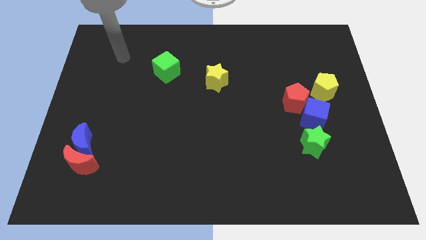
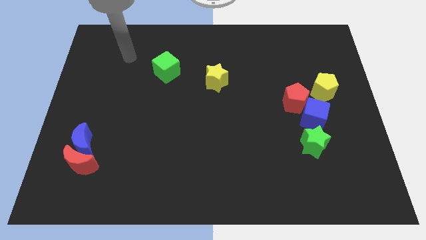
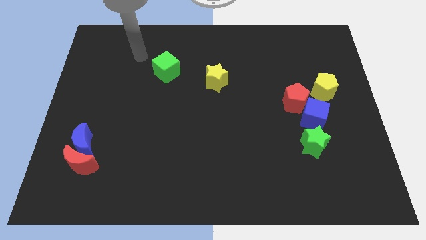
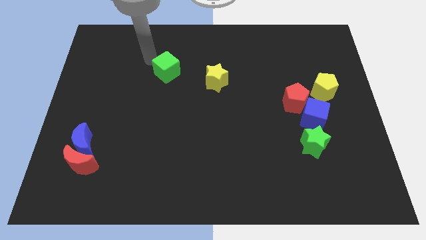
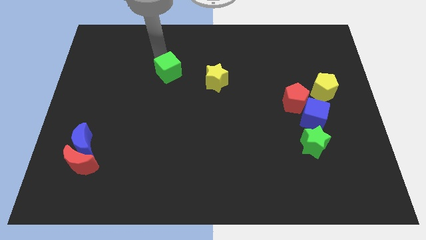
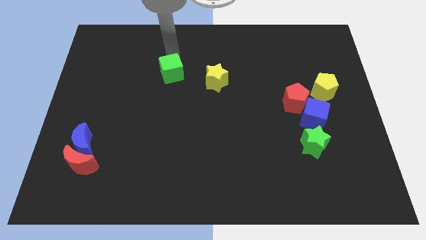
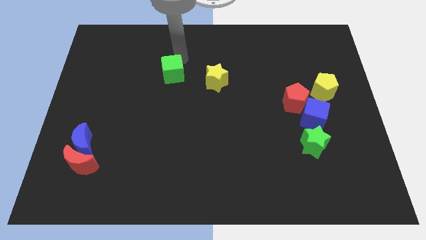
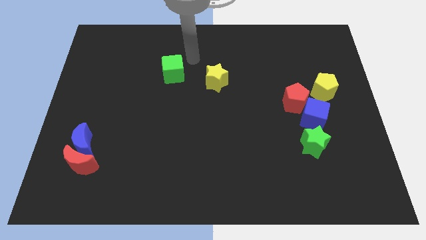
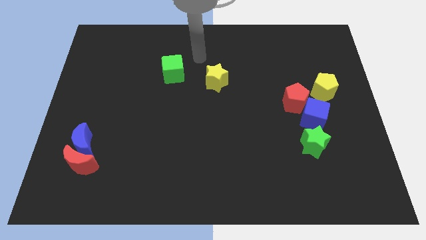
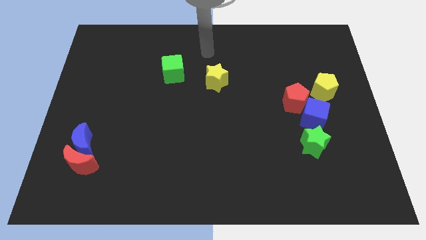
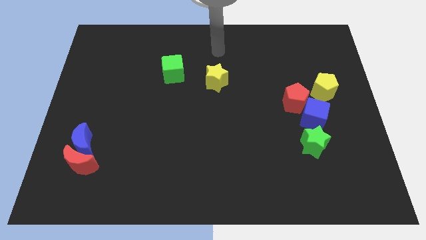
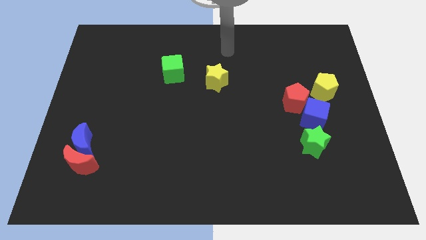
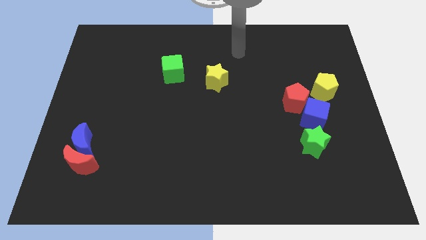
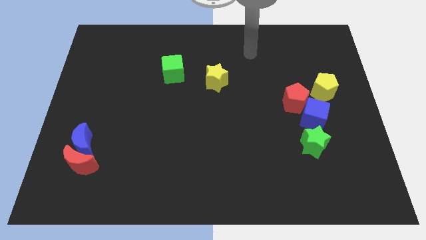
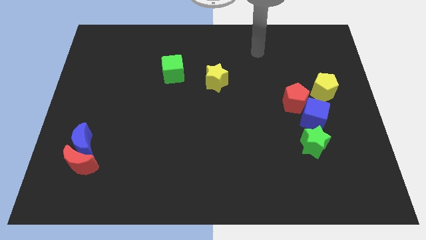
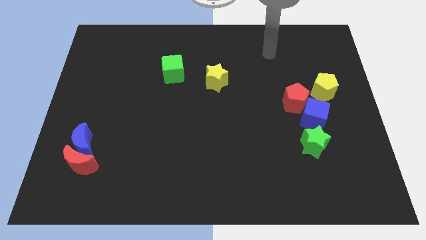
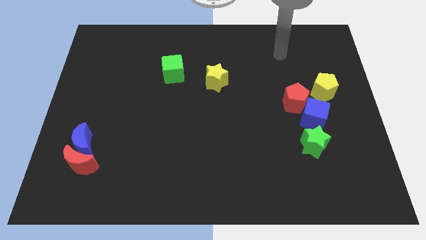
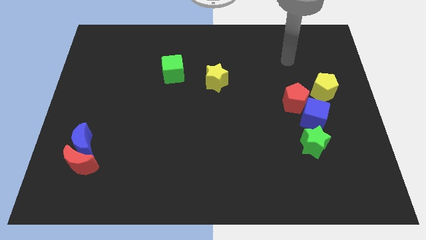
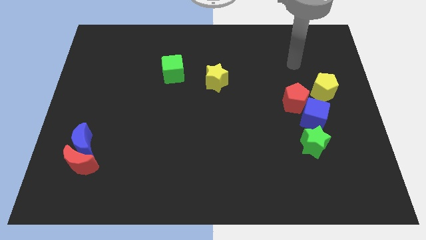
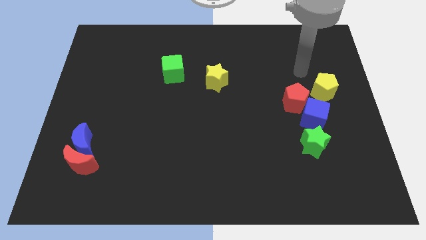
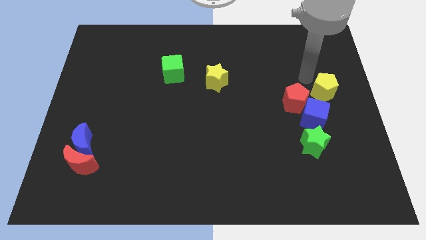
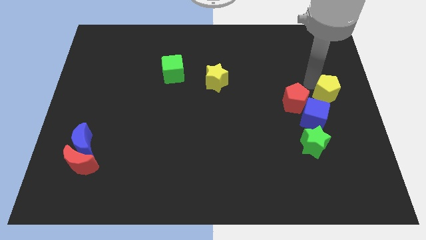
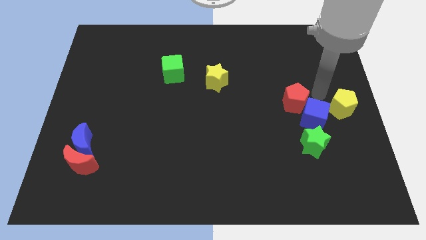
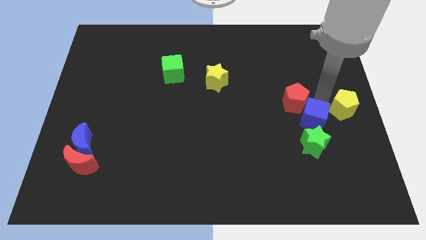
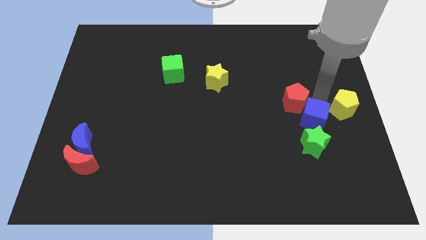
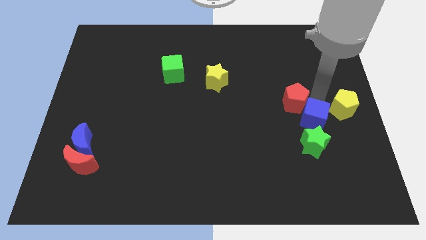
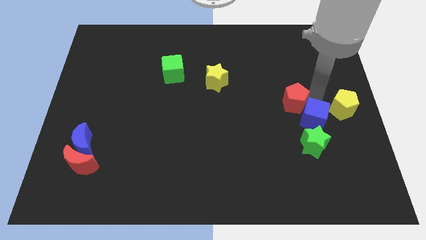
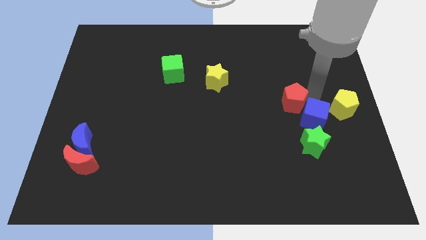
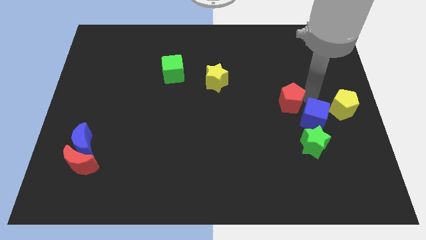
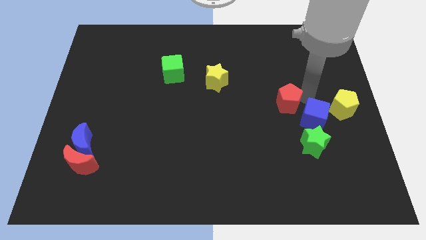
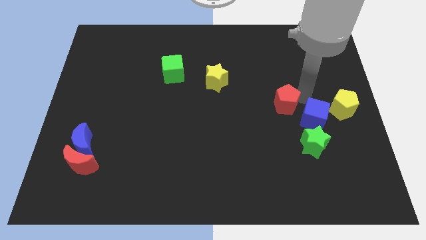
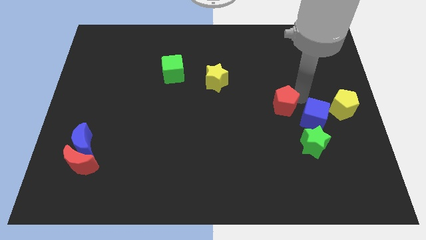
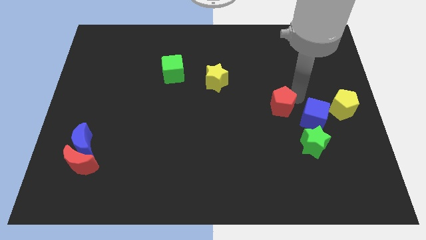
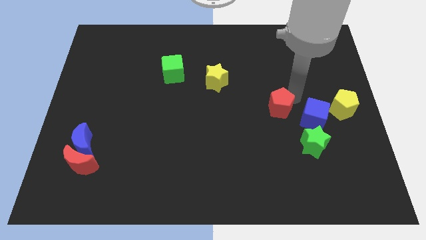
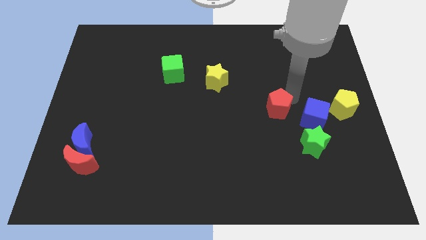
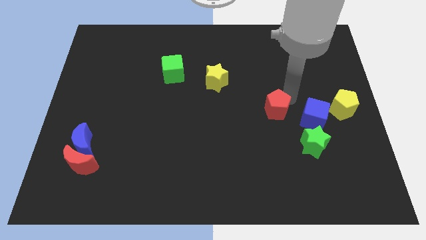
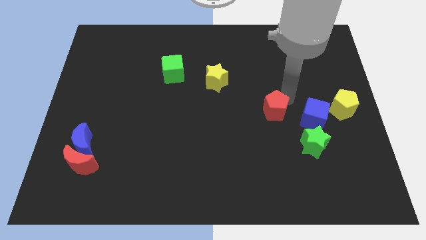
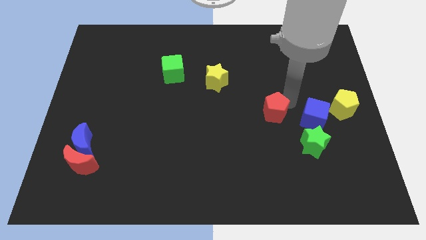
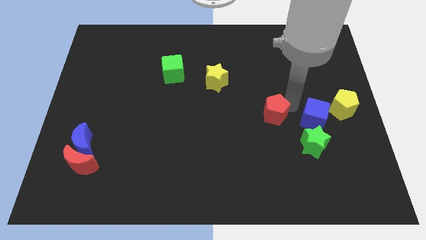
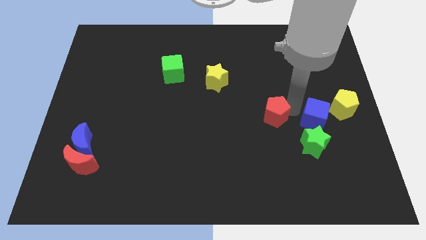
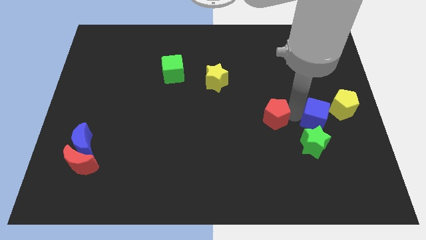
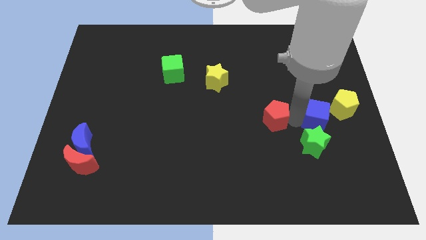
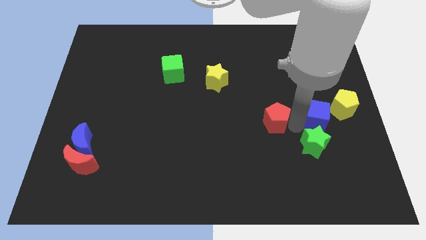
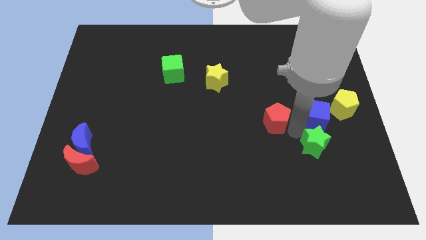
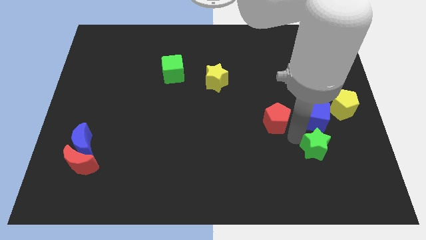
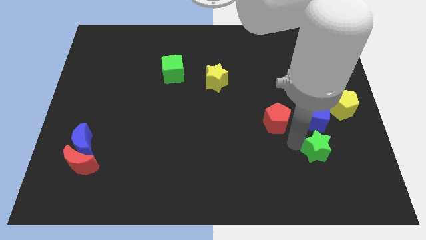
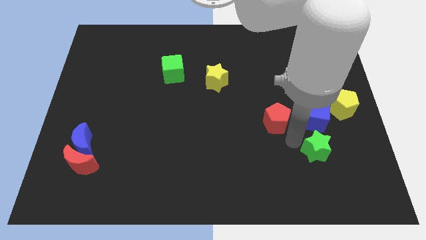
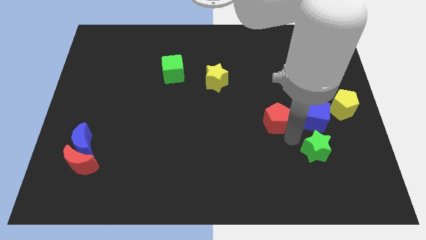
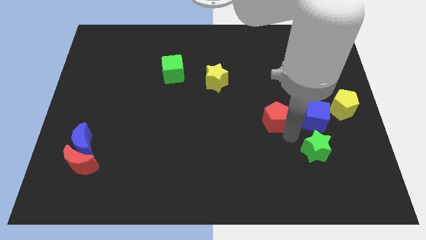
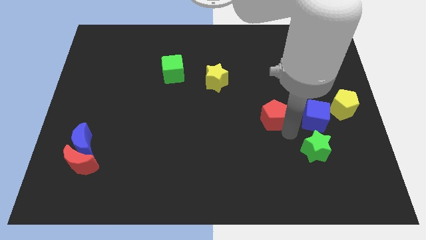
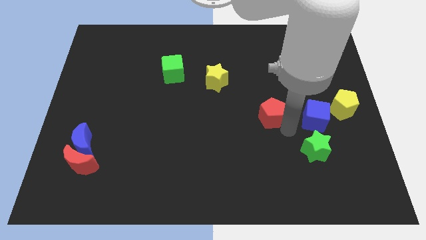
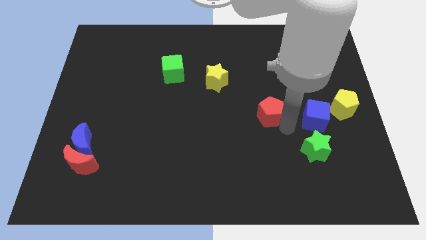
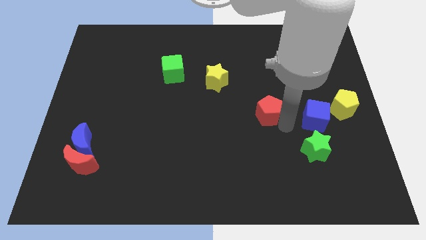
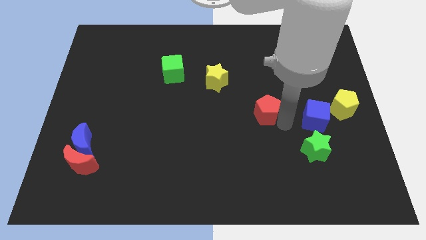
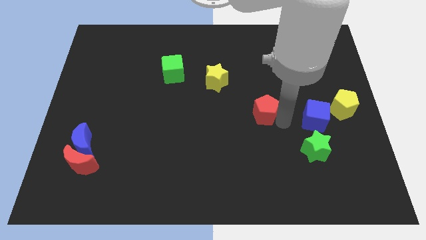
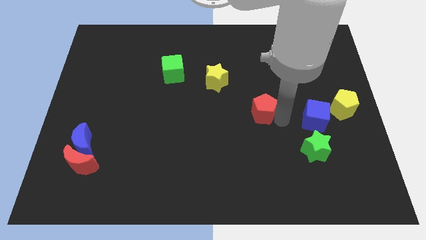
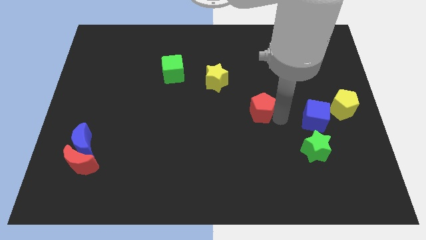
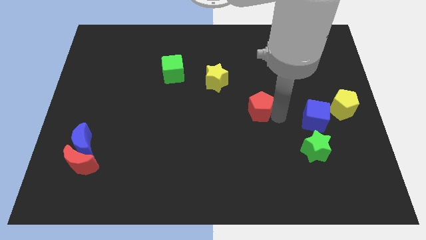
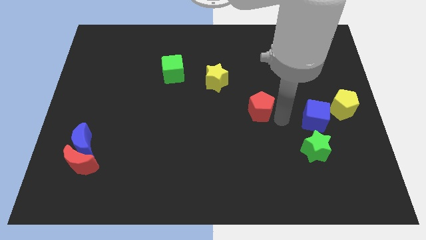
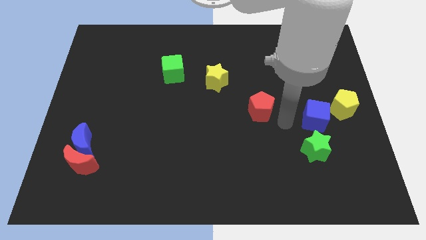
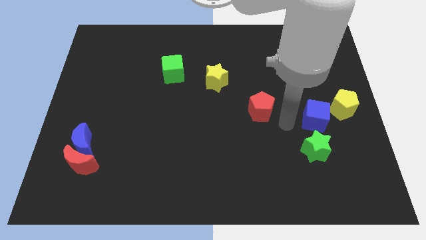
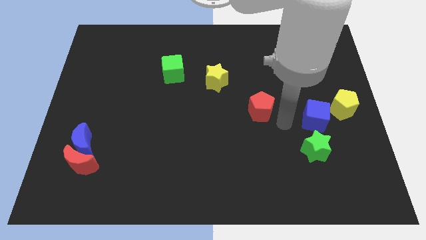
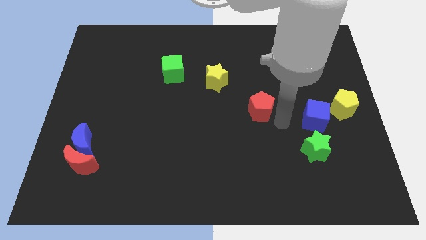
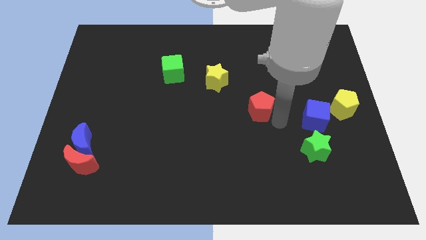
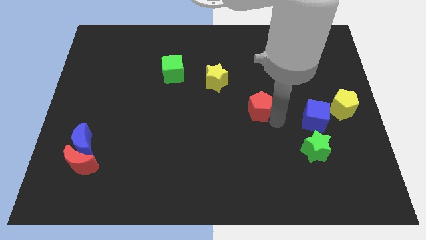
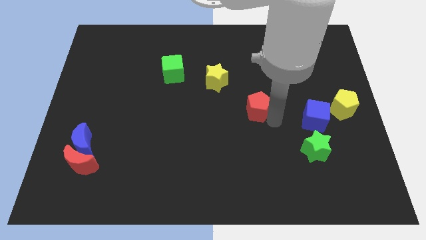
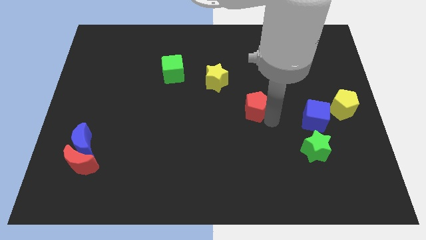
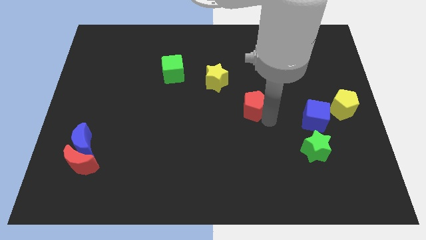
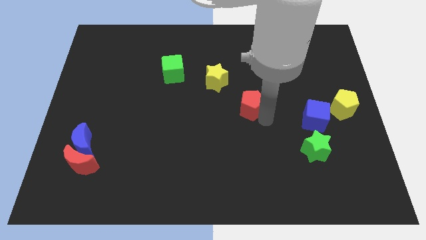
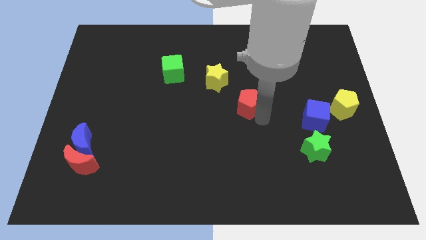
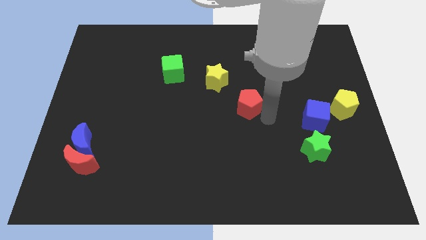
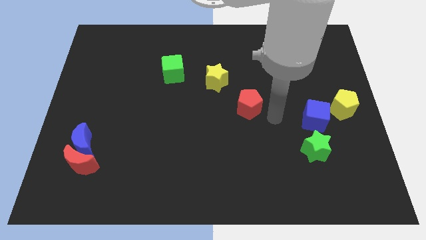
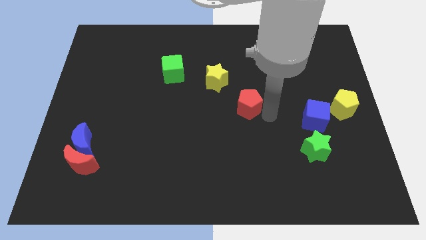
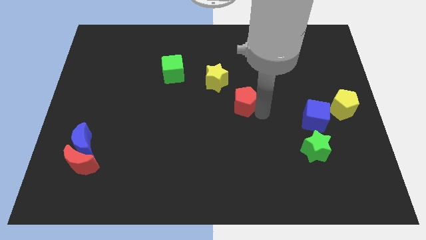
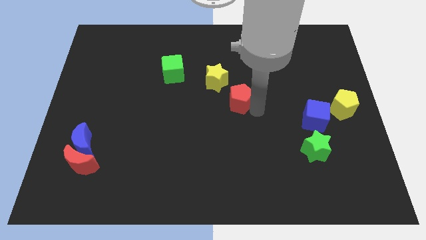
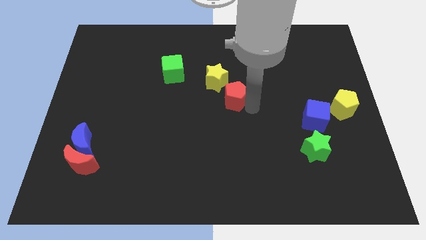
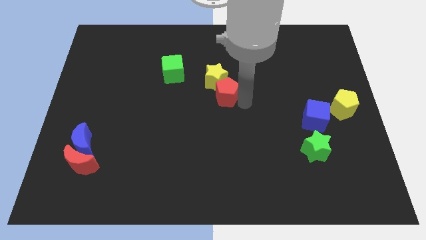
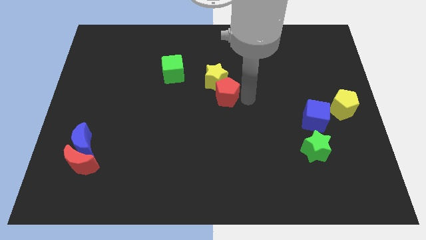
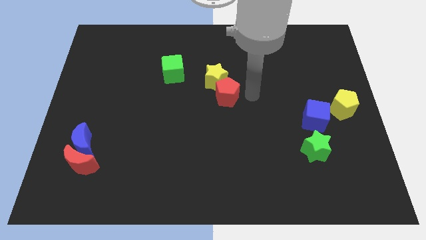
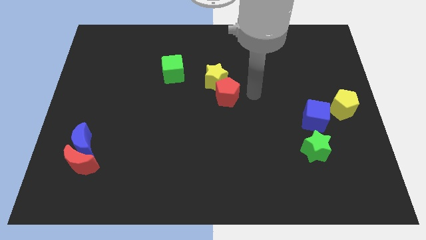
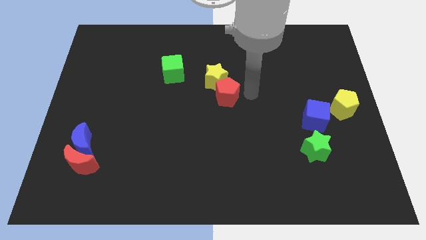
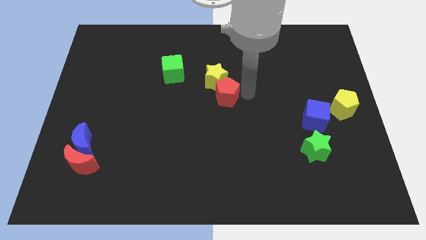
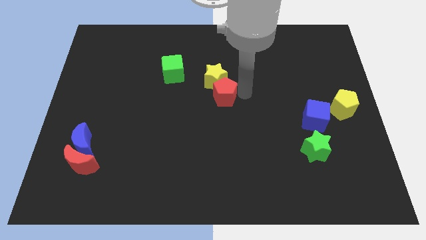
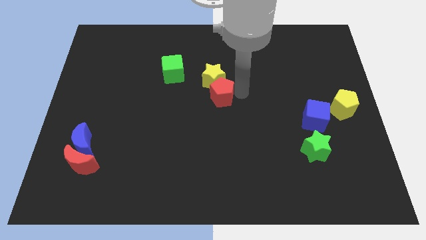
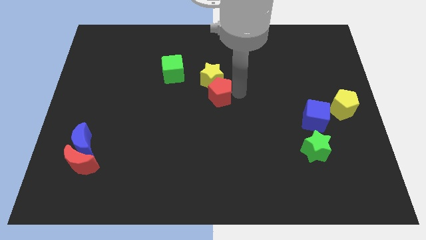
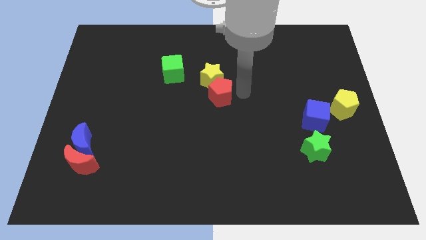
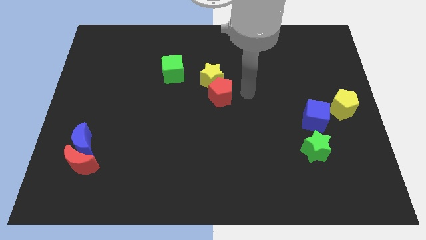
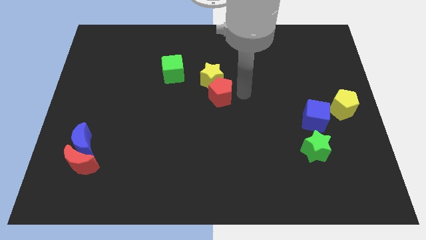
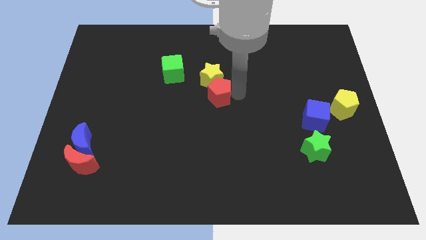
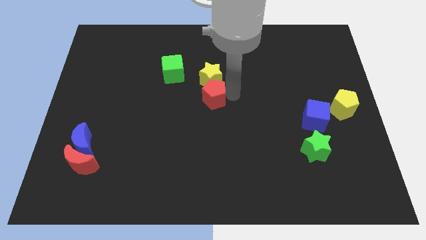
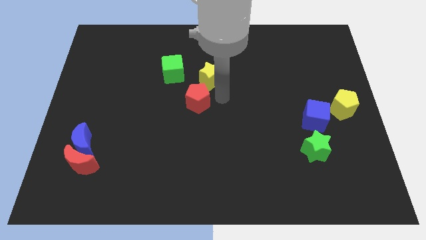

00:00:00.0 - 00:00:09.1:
push the red pentagon to the left
